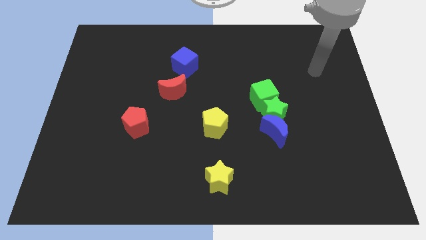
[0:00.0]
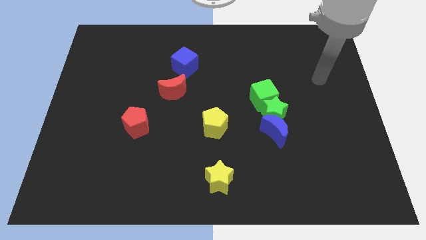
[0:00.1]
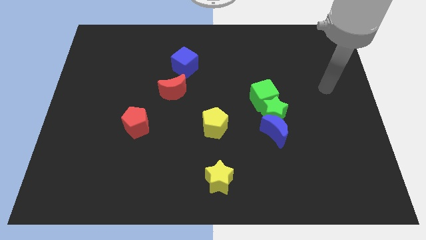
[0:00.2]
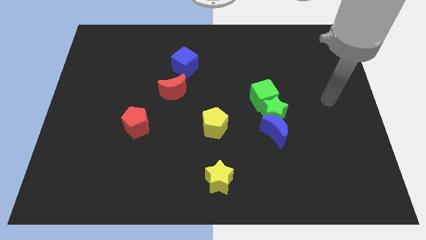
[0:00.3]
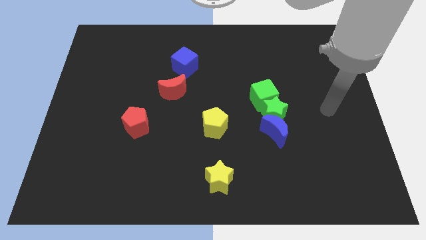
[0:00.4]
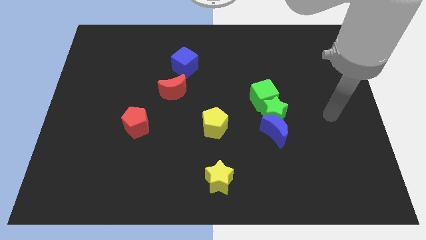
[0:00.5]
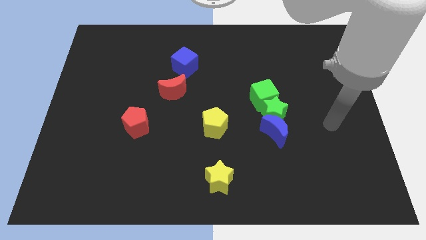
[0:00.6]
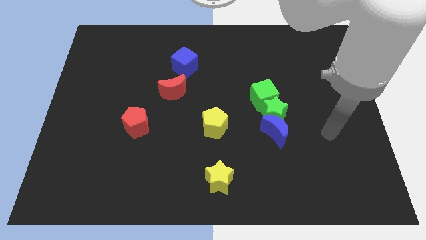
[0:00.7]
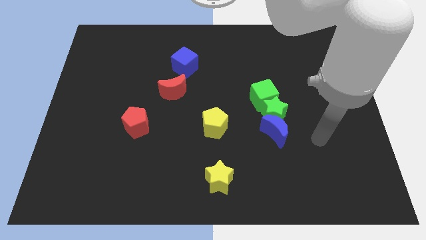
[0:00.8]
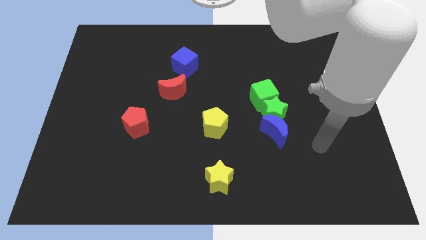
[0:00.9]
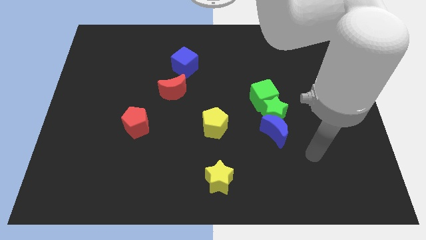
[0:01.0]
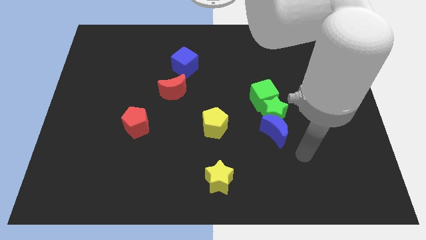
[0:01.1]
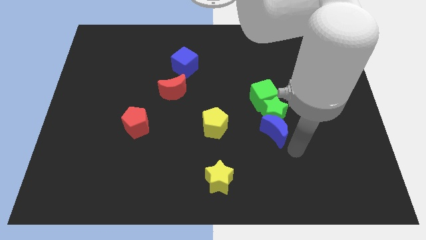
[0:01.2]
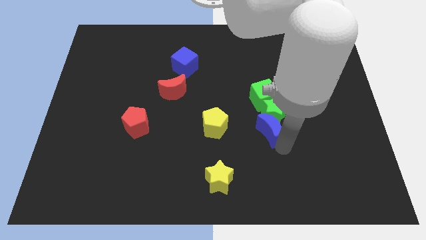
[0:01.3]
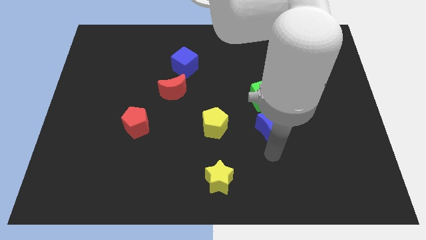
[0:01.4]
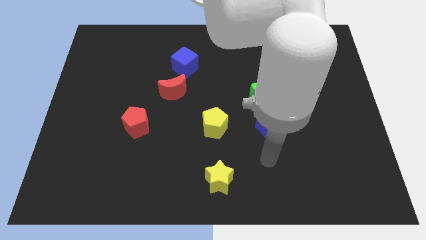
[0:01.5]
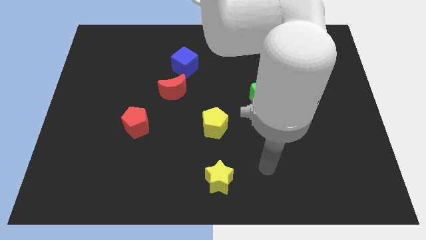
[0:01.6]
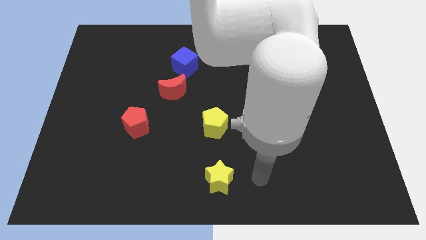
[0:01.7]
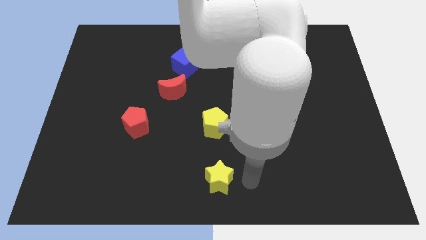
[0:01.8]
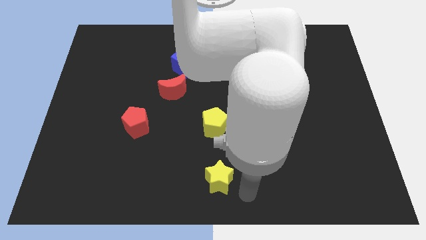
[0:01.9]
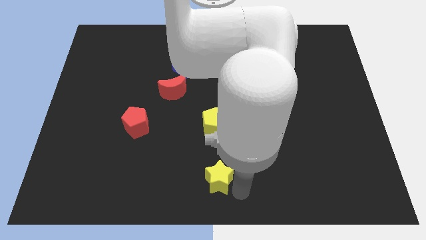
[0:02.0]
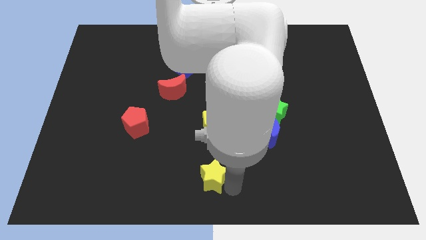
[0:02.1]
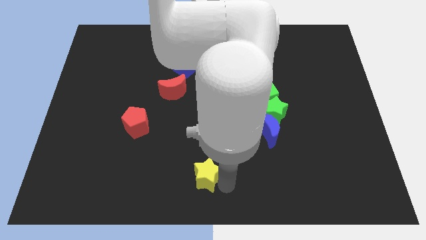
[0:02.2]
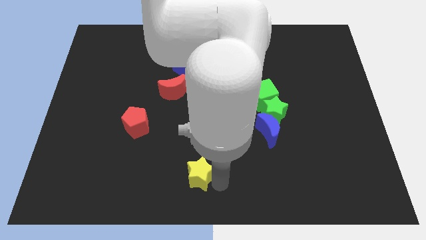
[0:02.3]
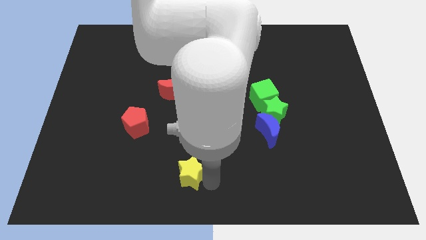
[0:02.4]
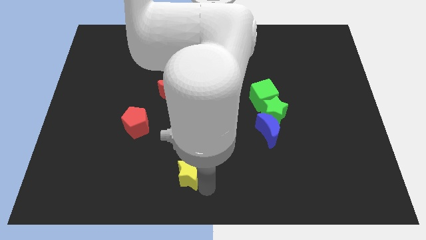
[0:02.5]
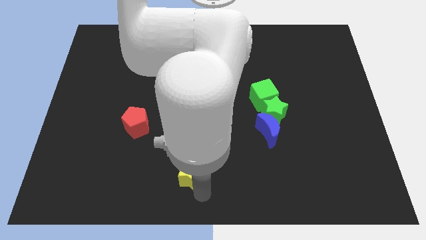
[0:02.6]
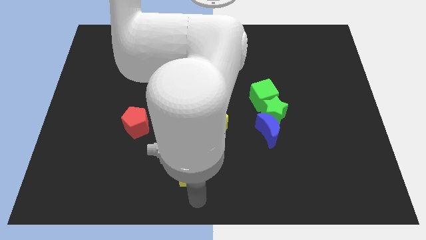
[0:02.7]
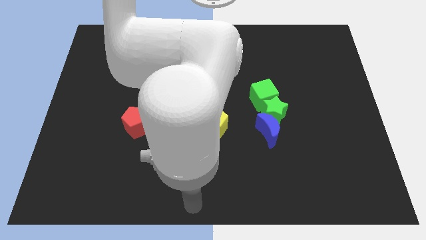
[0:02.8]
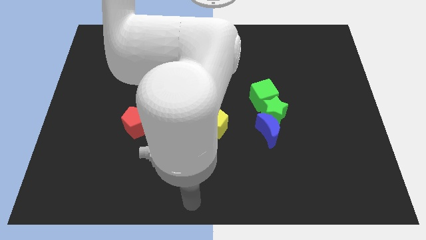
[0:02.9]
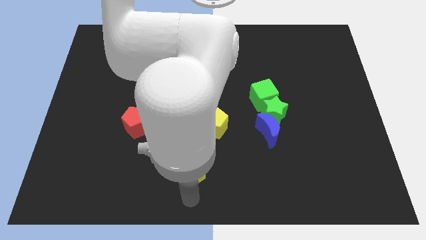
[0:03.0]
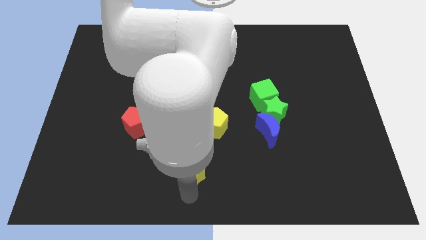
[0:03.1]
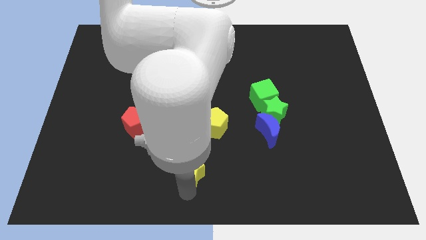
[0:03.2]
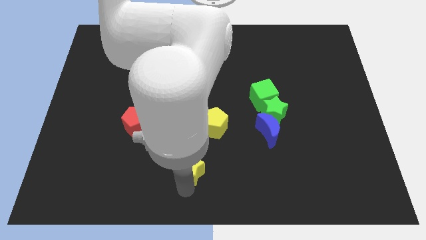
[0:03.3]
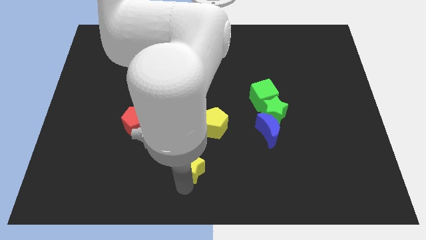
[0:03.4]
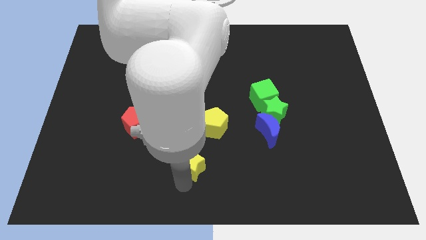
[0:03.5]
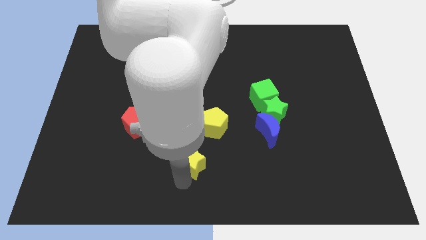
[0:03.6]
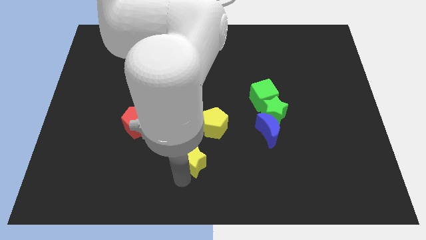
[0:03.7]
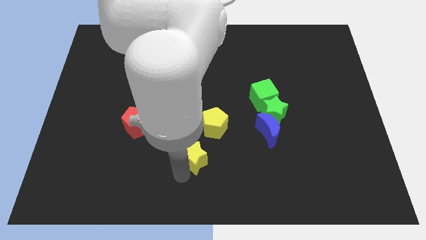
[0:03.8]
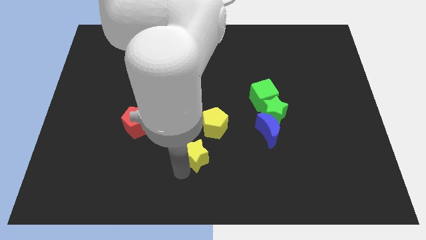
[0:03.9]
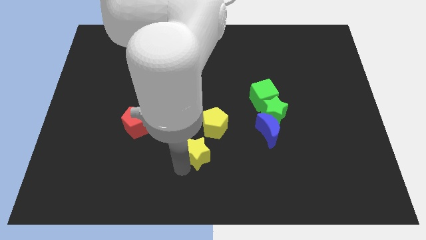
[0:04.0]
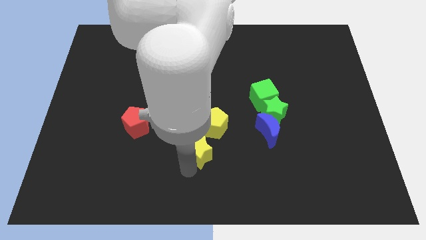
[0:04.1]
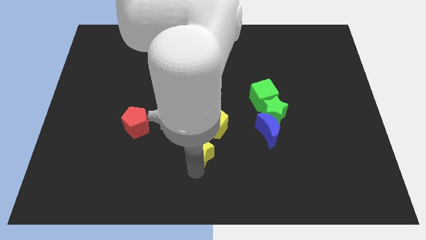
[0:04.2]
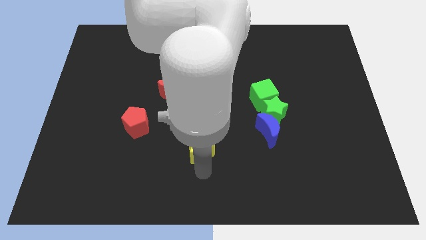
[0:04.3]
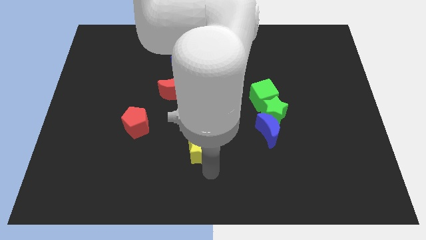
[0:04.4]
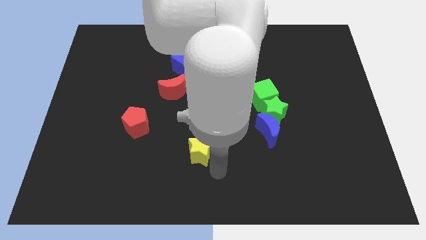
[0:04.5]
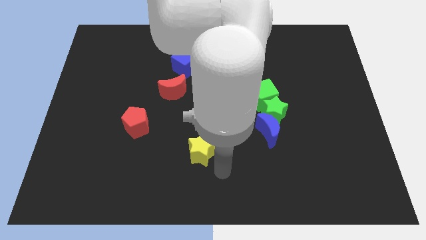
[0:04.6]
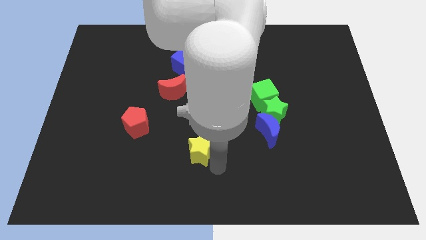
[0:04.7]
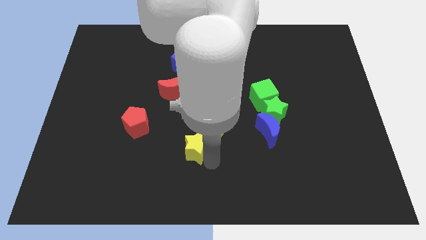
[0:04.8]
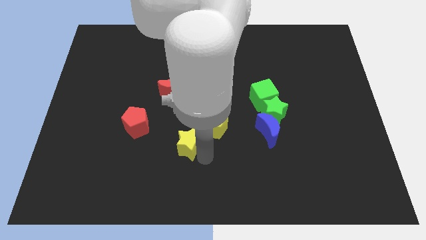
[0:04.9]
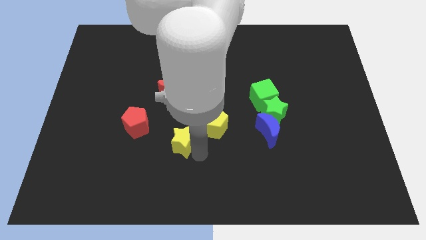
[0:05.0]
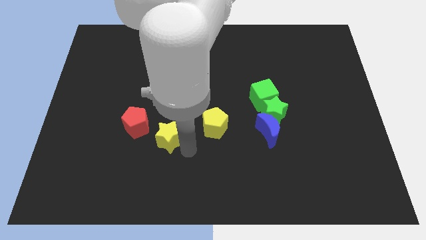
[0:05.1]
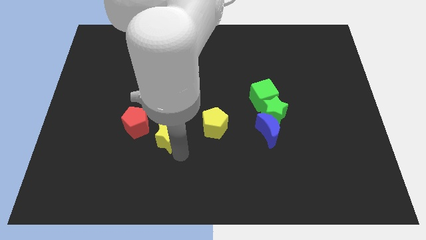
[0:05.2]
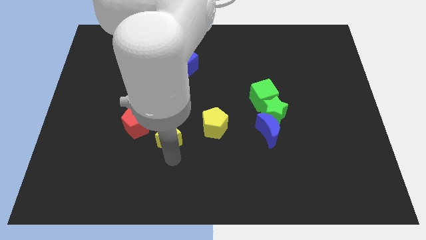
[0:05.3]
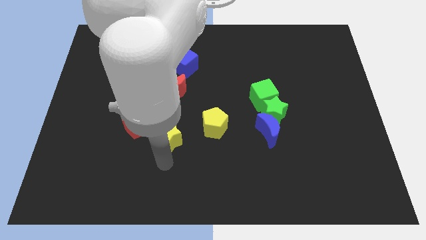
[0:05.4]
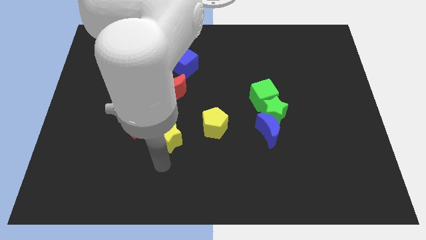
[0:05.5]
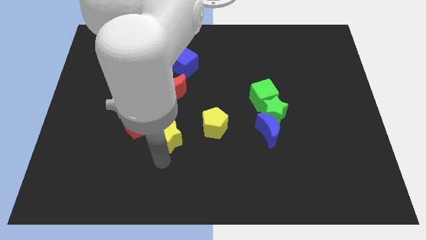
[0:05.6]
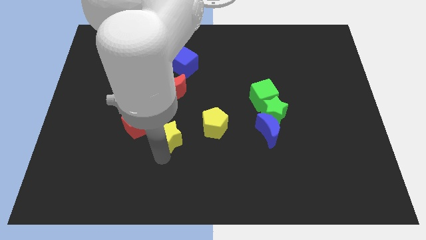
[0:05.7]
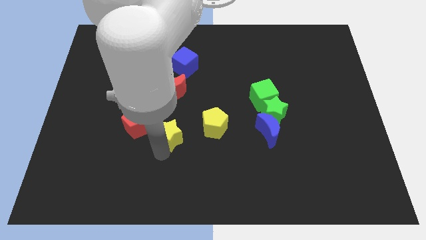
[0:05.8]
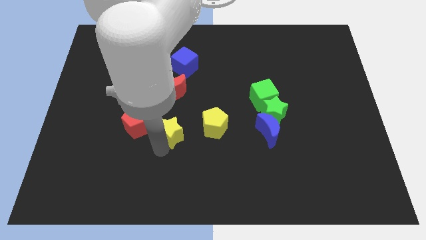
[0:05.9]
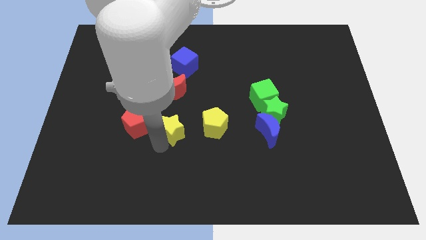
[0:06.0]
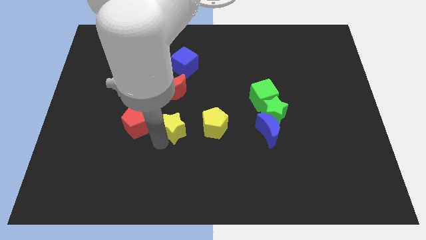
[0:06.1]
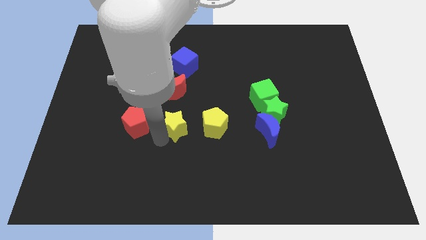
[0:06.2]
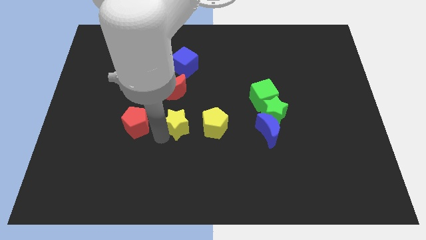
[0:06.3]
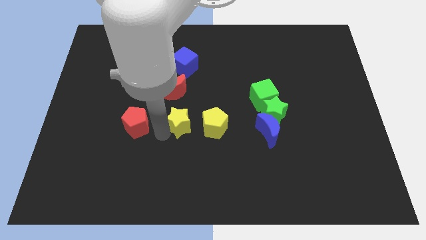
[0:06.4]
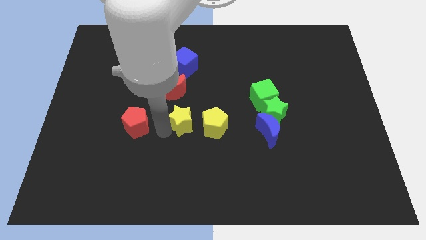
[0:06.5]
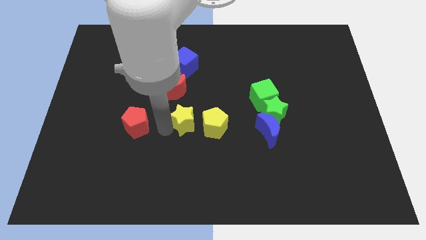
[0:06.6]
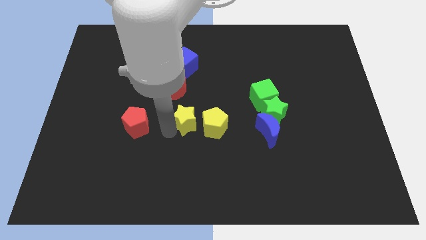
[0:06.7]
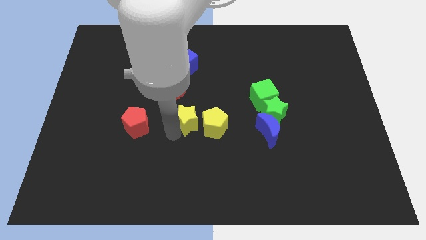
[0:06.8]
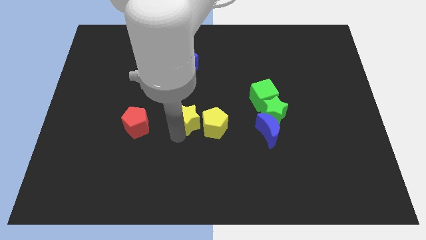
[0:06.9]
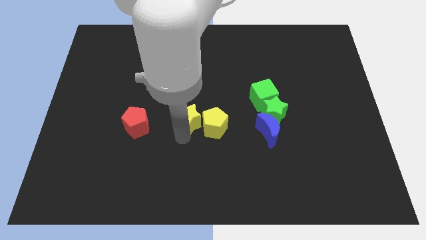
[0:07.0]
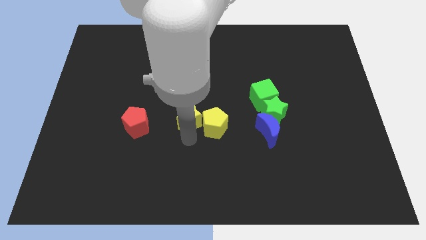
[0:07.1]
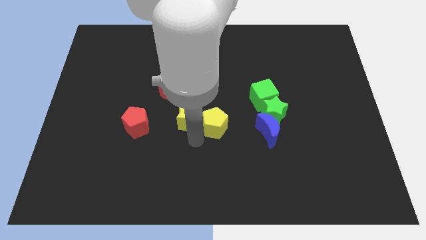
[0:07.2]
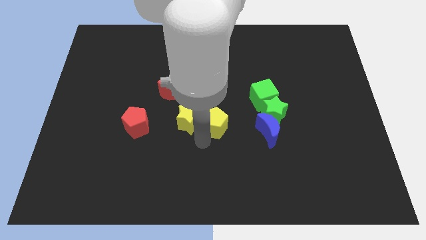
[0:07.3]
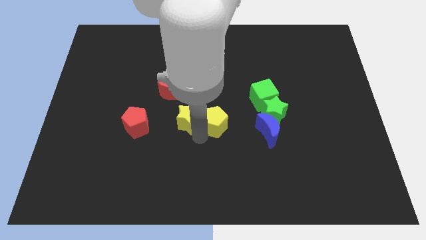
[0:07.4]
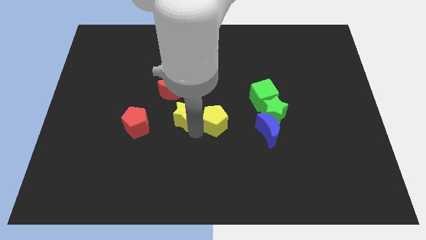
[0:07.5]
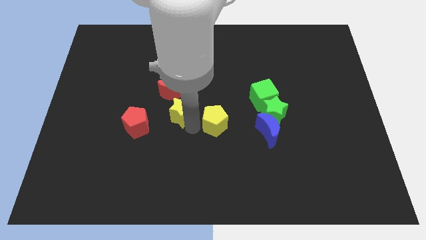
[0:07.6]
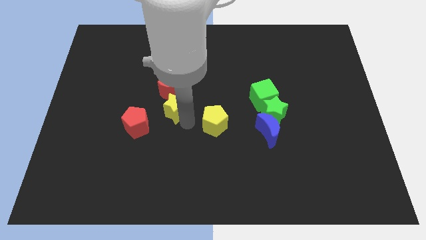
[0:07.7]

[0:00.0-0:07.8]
put the yellow star next to the red moon
